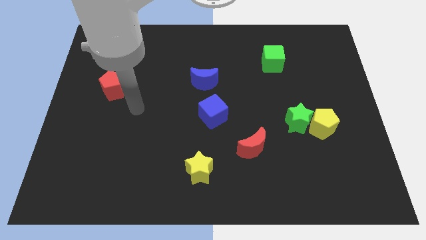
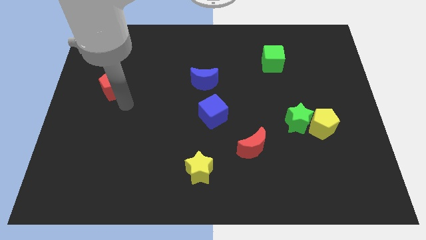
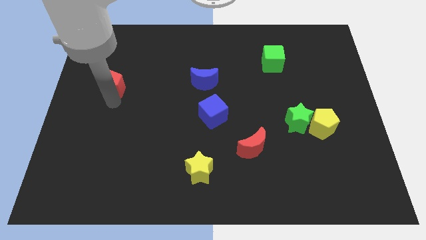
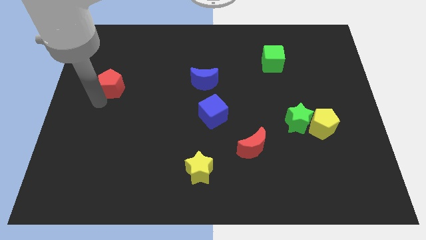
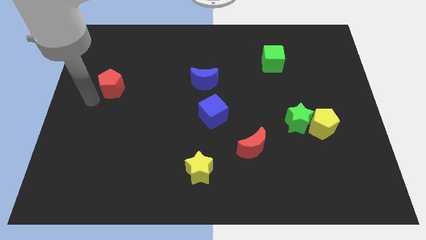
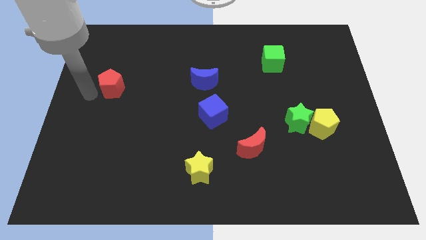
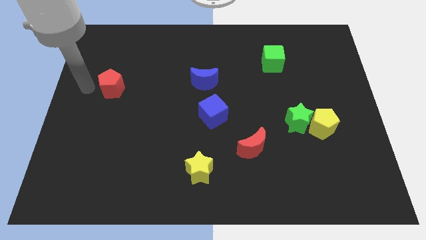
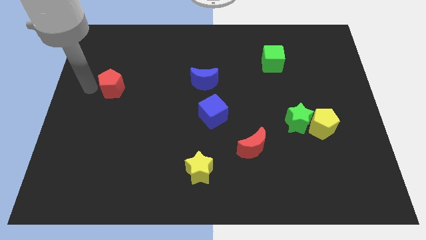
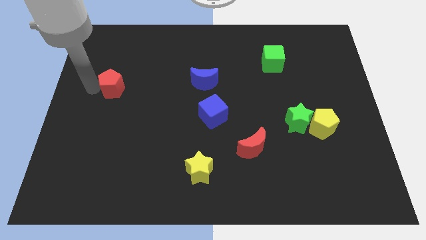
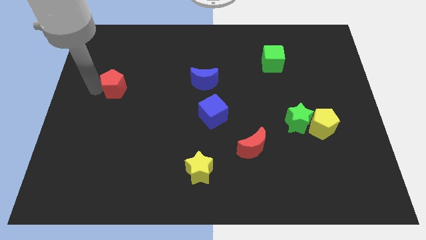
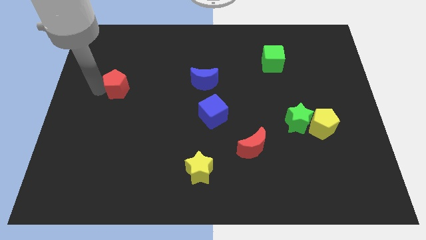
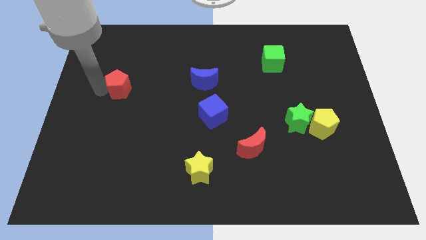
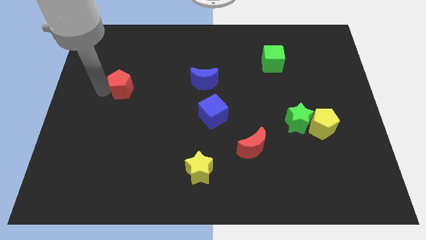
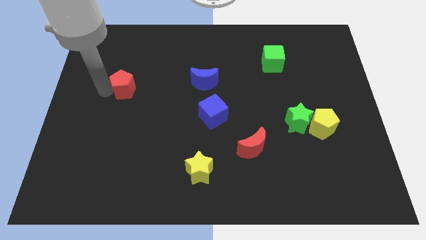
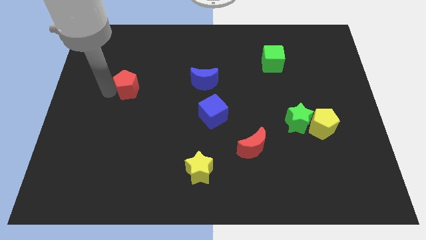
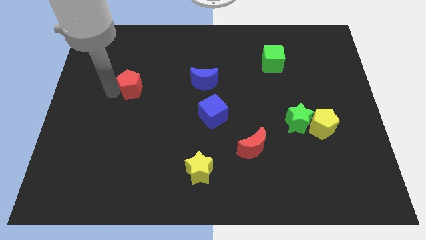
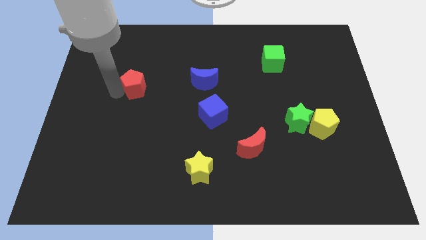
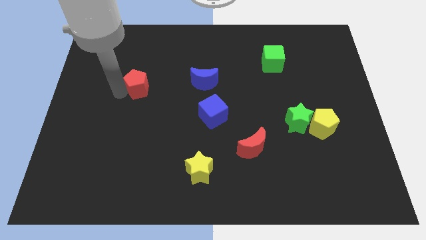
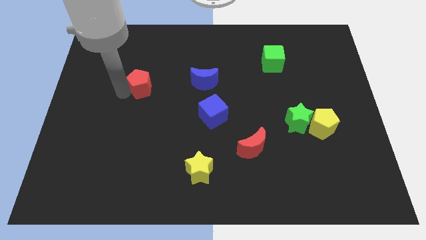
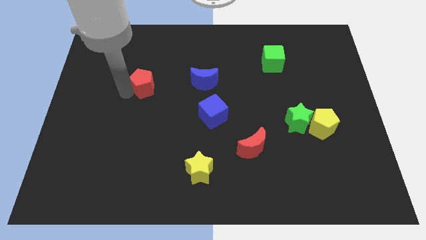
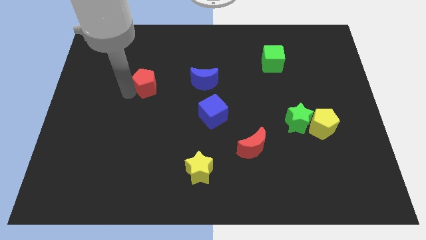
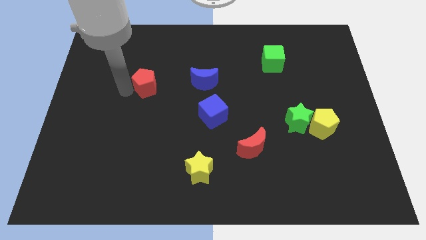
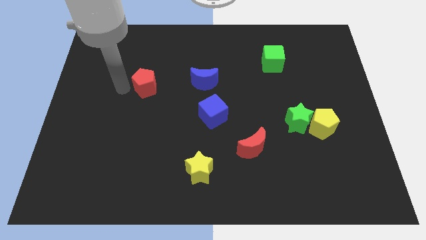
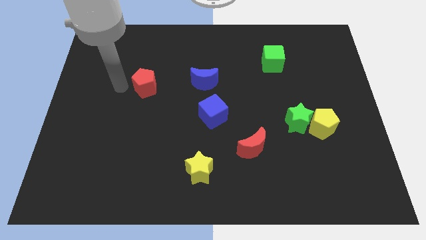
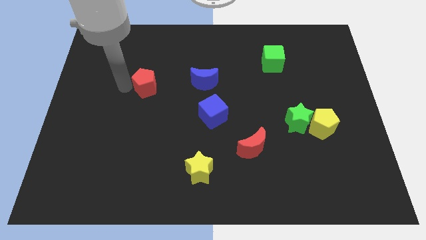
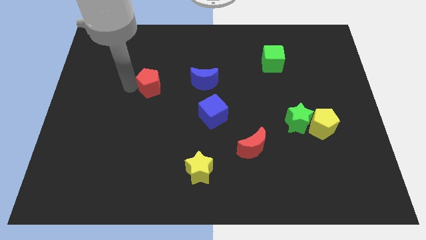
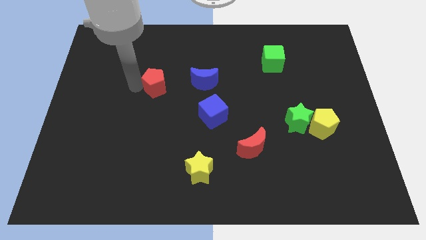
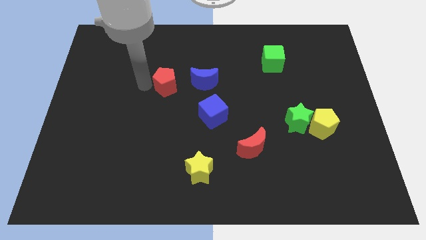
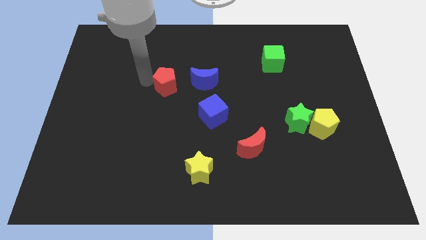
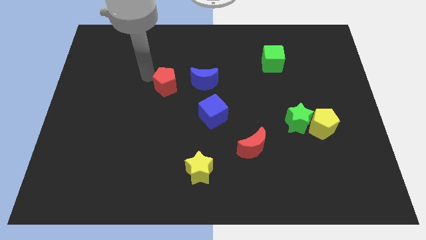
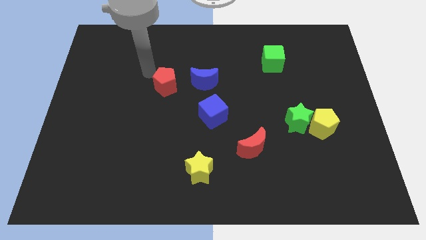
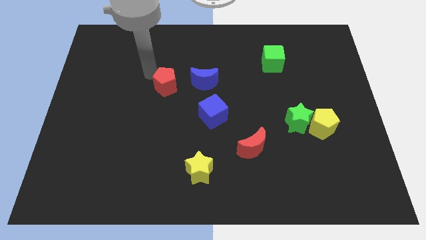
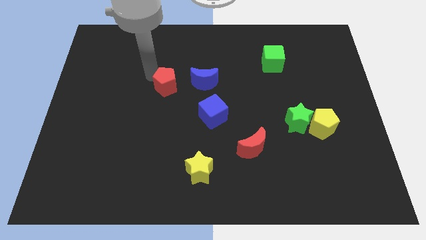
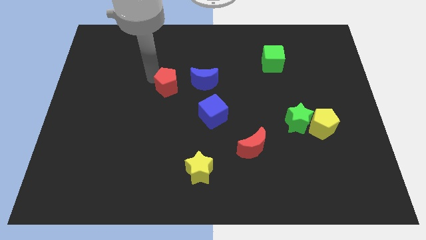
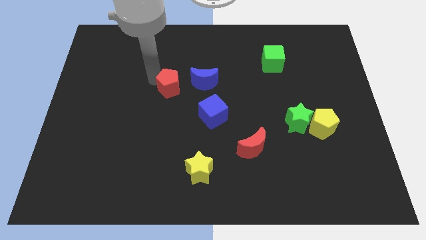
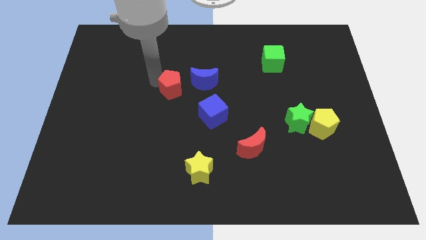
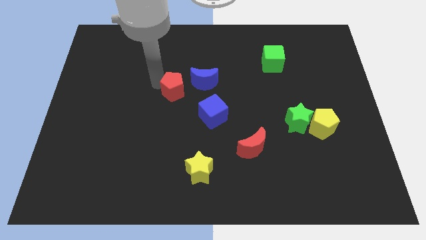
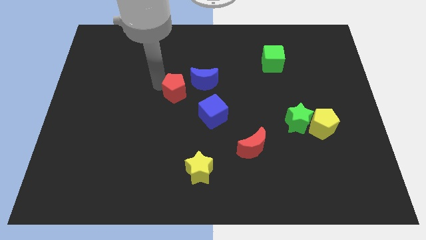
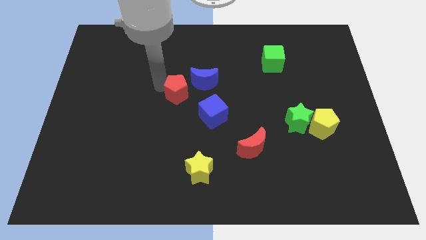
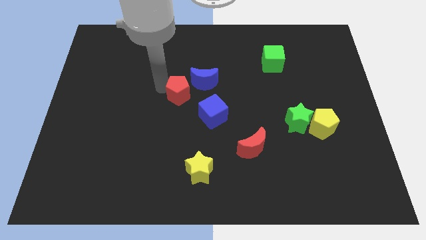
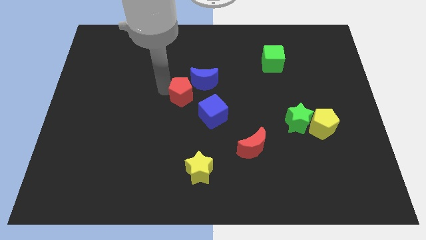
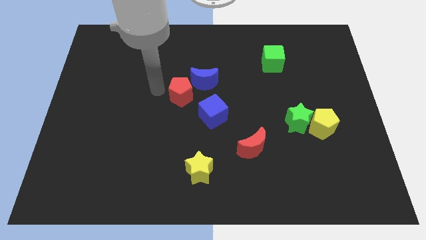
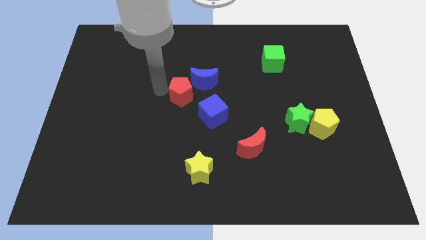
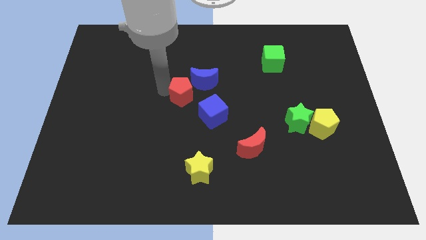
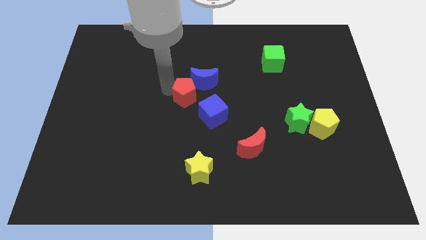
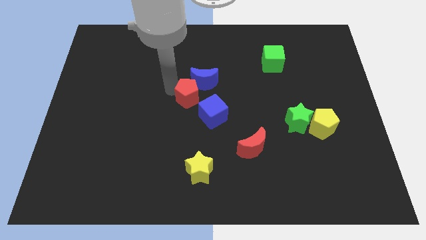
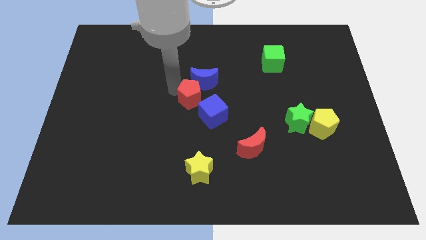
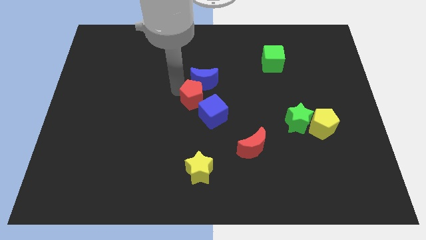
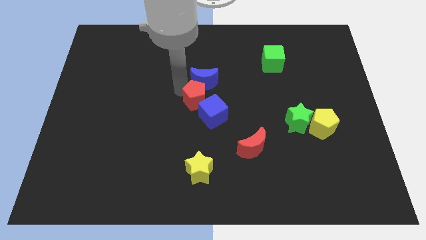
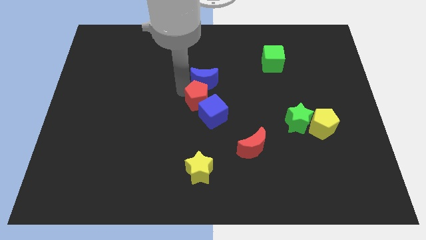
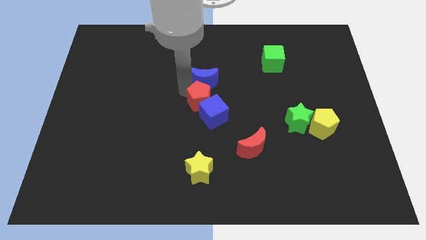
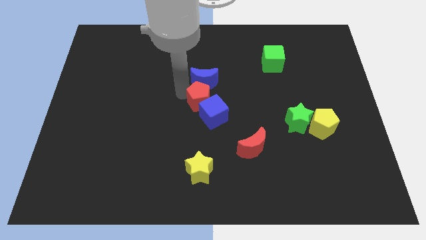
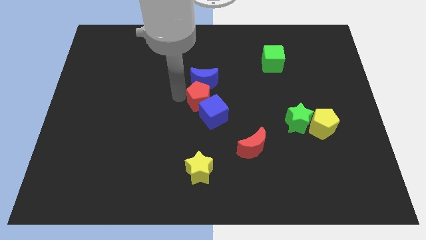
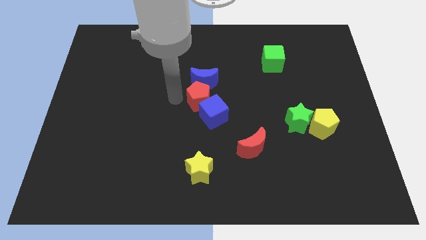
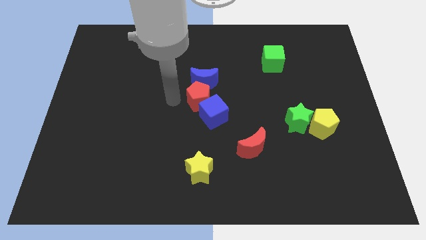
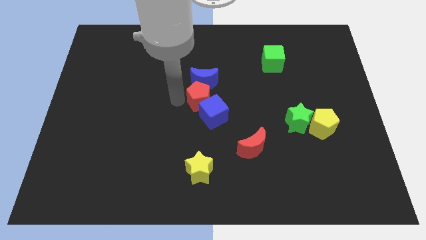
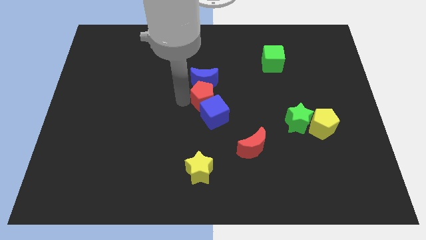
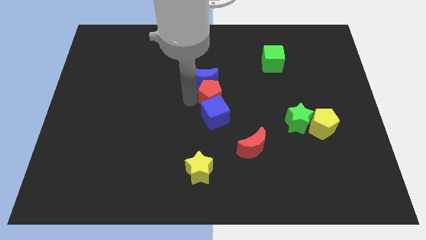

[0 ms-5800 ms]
push the red pentagon to the top right of the blue cube

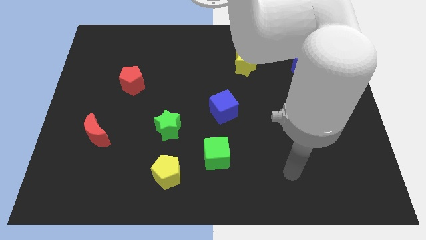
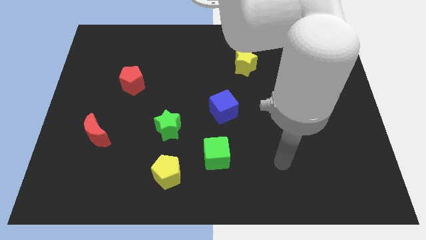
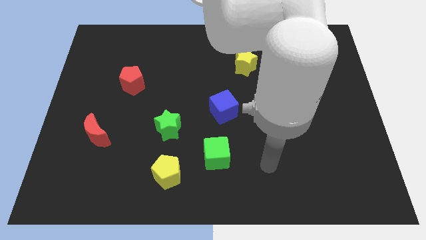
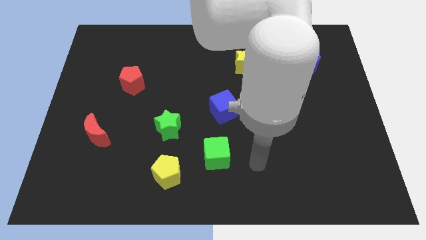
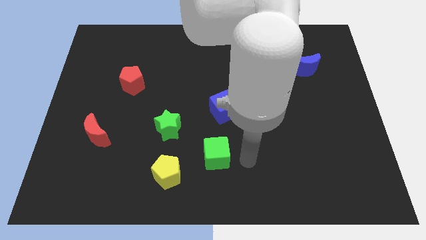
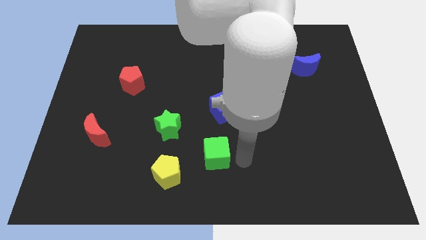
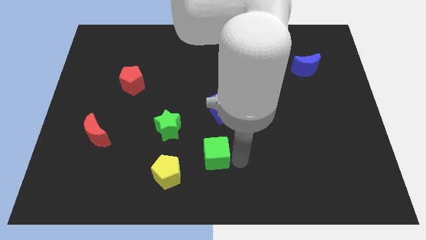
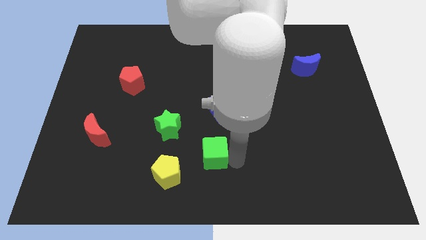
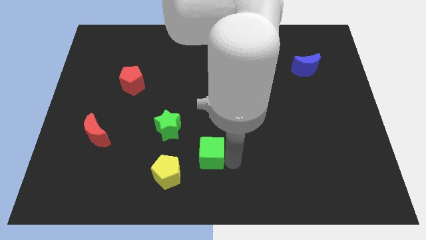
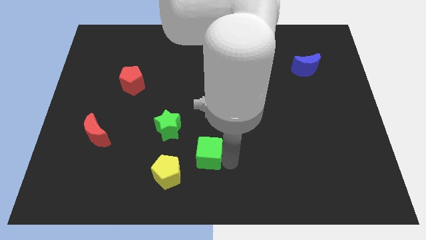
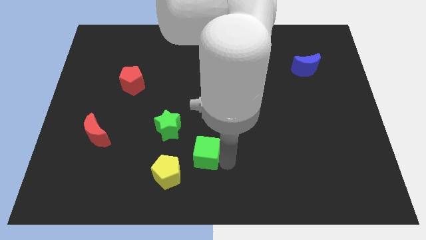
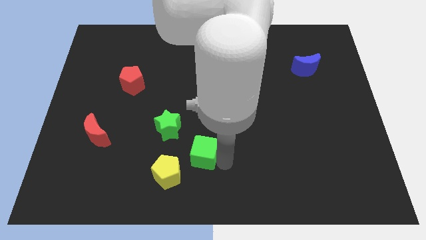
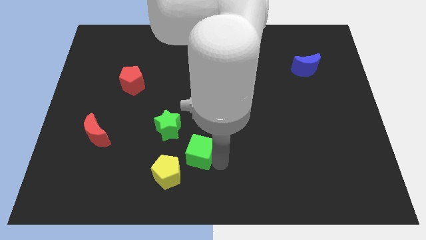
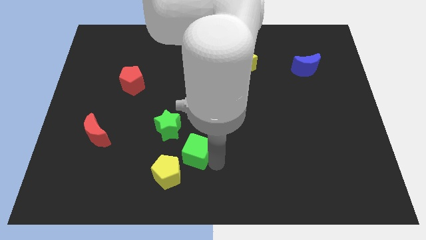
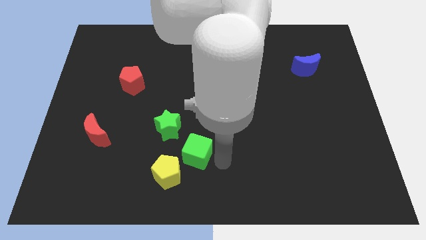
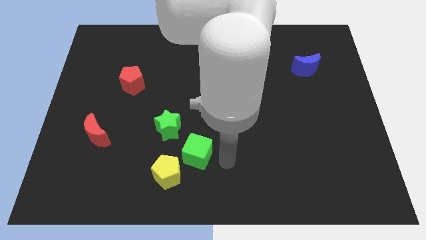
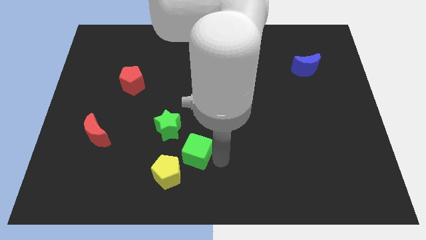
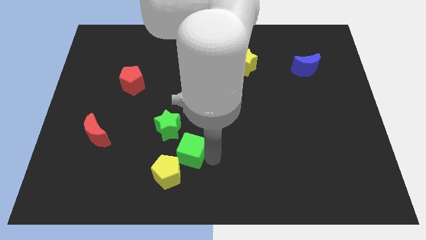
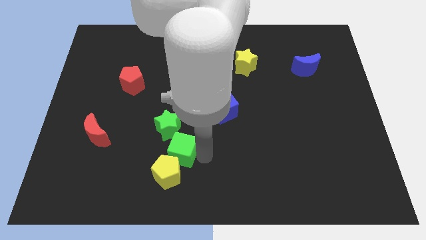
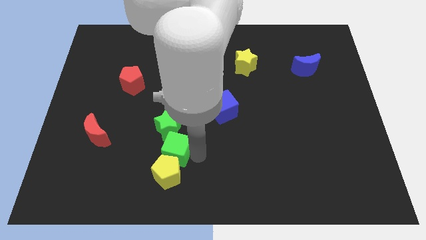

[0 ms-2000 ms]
slide the green cube to the top left of the yellow pentagon
